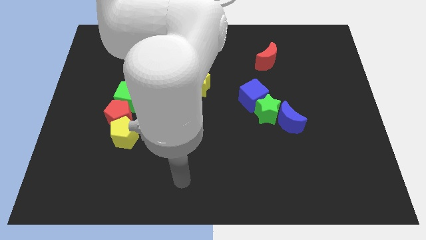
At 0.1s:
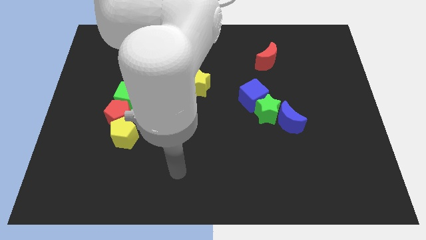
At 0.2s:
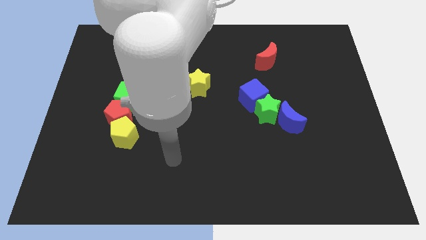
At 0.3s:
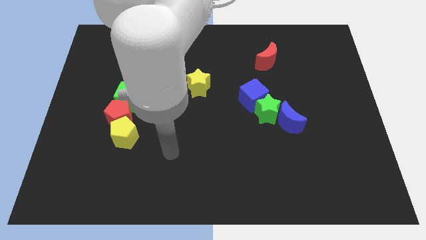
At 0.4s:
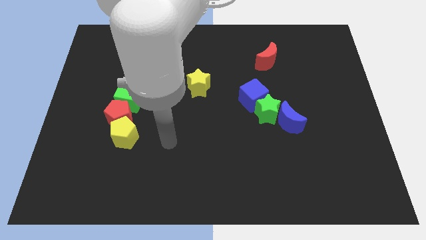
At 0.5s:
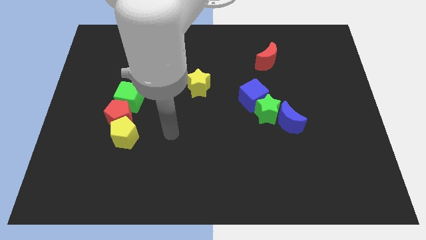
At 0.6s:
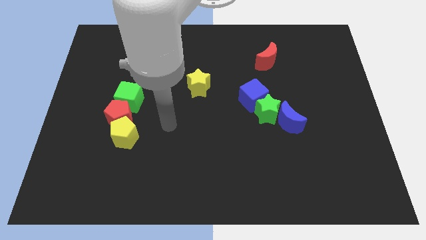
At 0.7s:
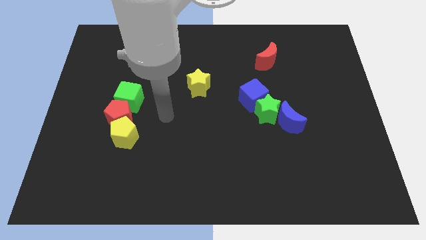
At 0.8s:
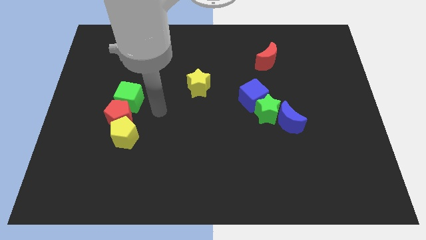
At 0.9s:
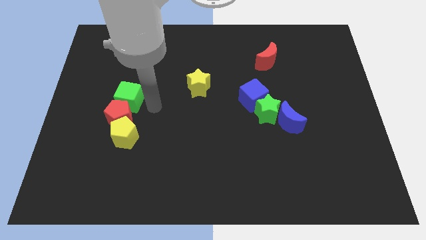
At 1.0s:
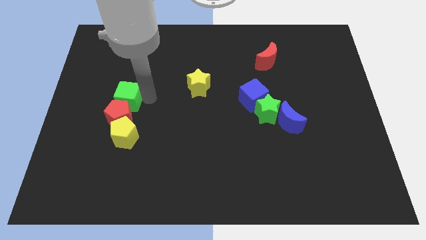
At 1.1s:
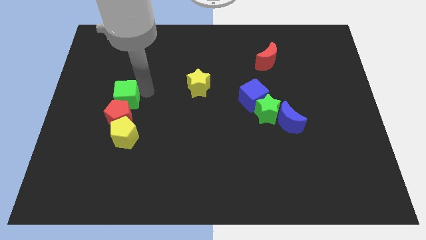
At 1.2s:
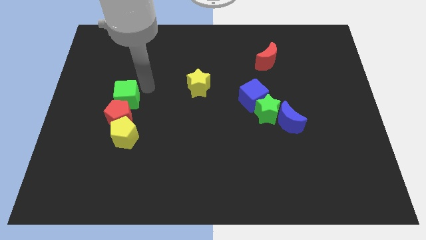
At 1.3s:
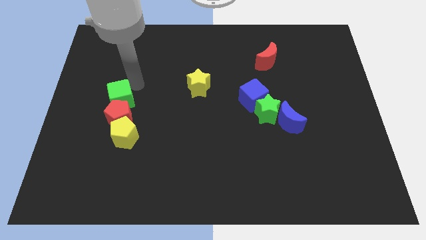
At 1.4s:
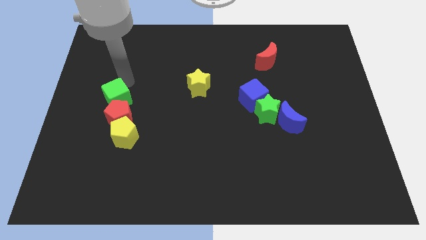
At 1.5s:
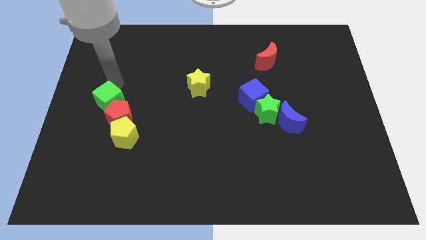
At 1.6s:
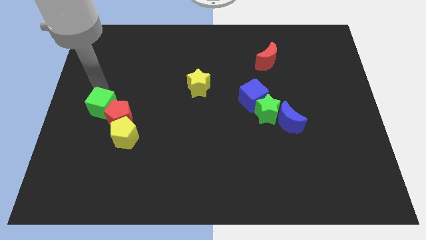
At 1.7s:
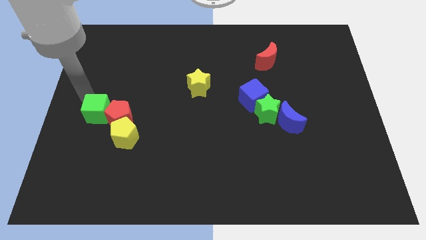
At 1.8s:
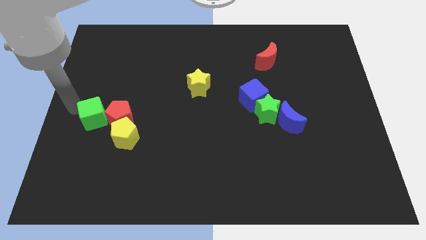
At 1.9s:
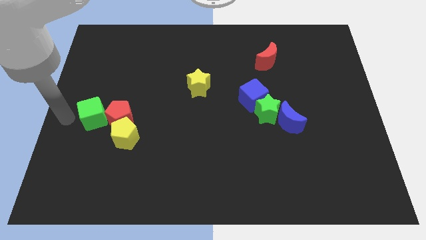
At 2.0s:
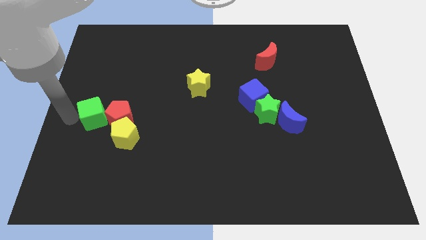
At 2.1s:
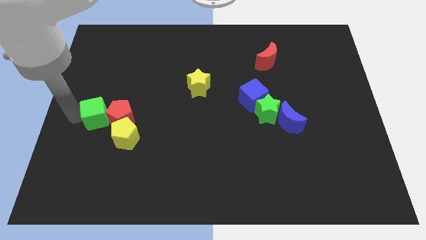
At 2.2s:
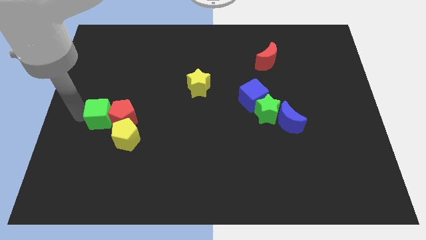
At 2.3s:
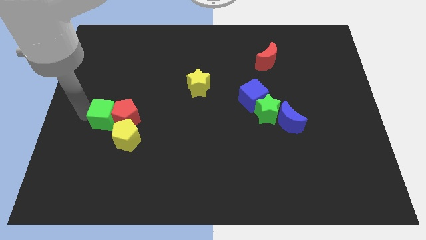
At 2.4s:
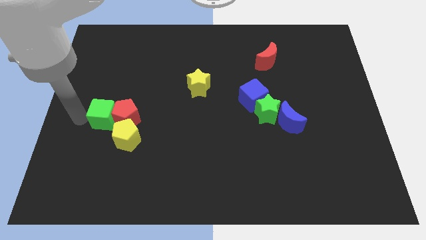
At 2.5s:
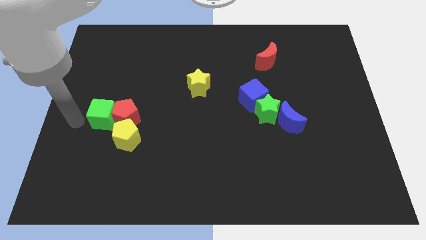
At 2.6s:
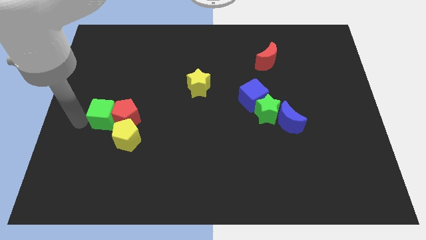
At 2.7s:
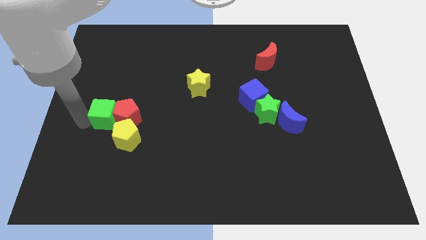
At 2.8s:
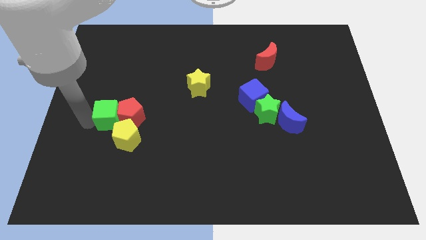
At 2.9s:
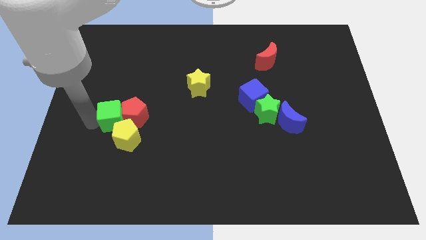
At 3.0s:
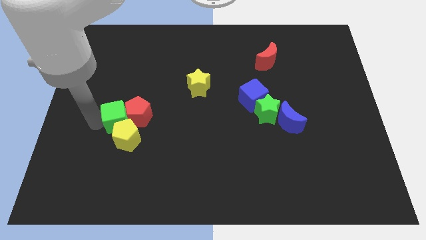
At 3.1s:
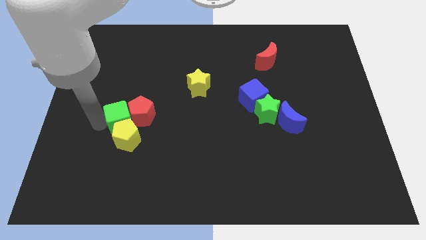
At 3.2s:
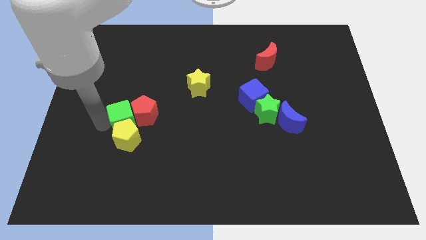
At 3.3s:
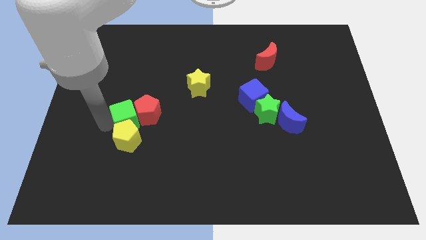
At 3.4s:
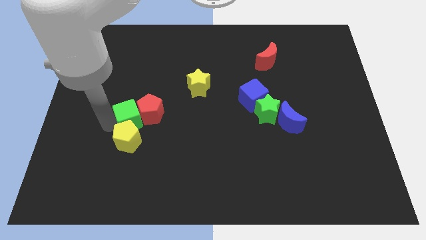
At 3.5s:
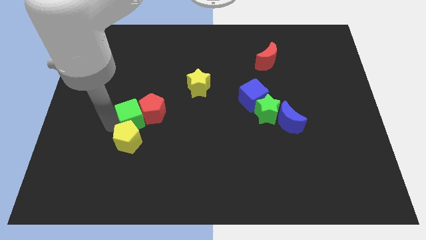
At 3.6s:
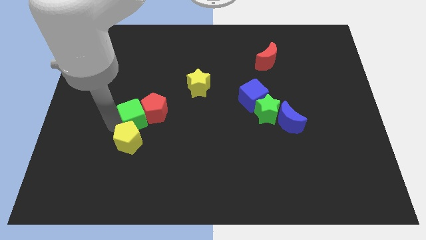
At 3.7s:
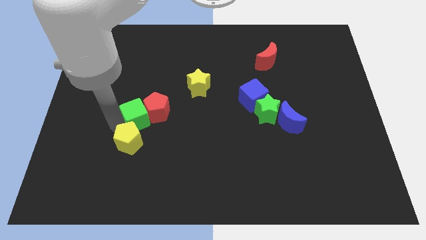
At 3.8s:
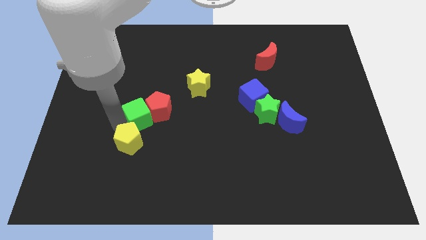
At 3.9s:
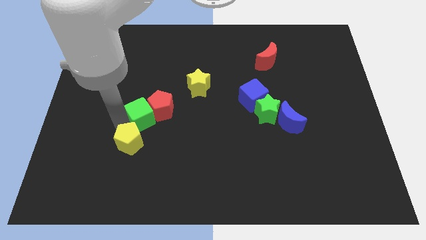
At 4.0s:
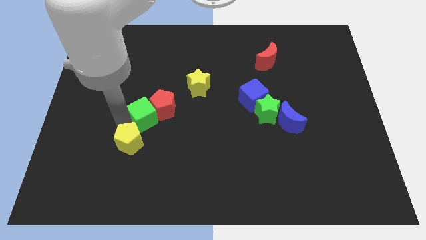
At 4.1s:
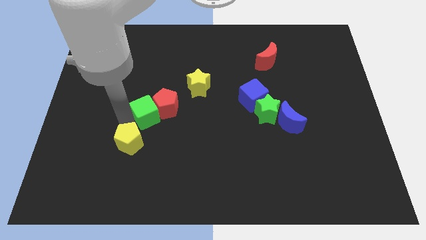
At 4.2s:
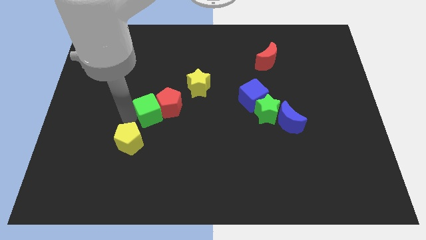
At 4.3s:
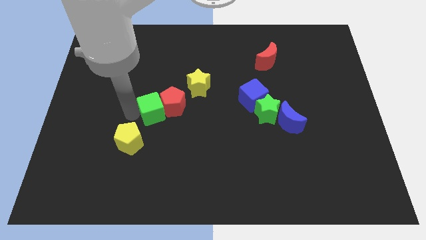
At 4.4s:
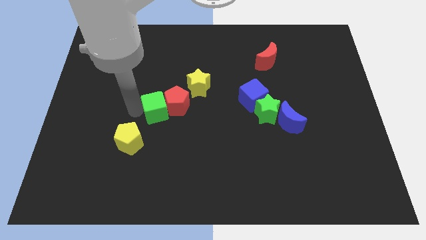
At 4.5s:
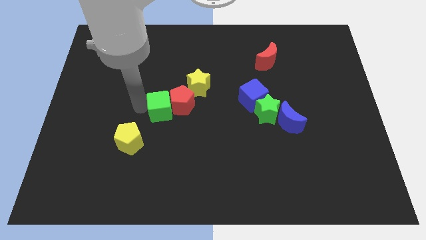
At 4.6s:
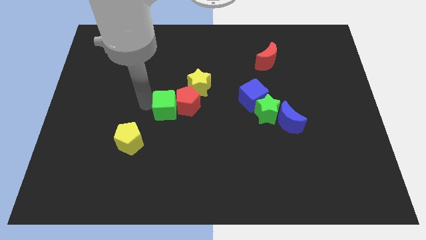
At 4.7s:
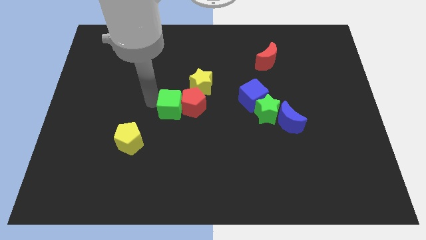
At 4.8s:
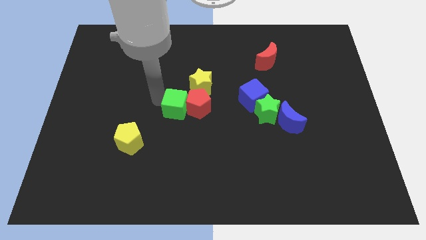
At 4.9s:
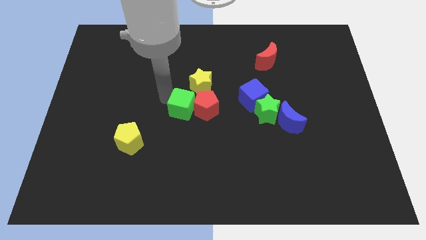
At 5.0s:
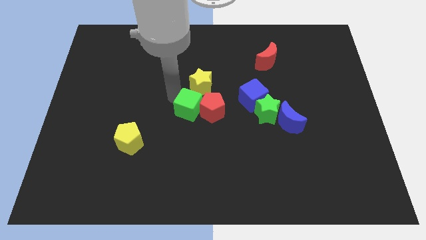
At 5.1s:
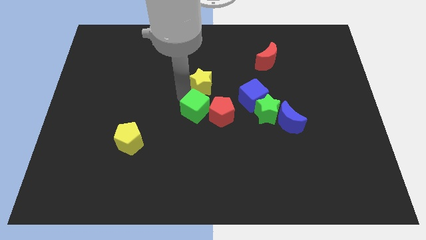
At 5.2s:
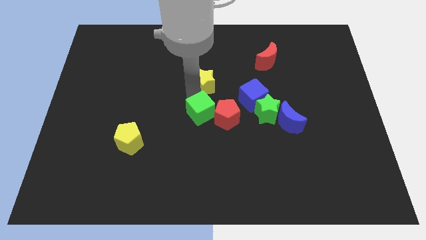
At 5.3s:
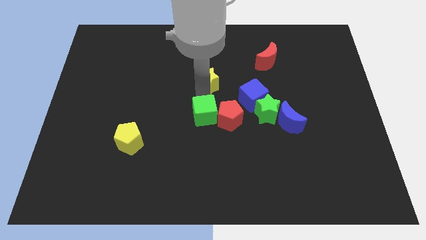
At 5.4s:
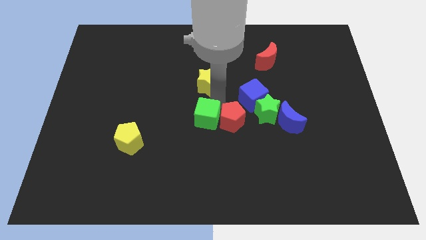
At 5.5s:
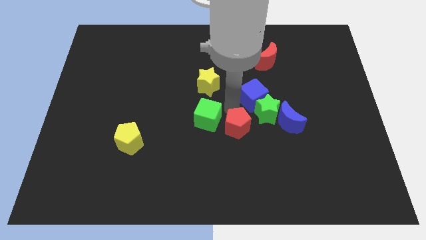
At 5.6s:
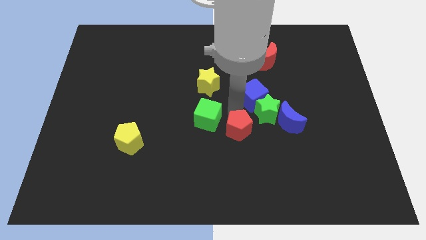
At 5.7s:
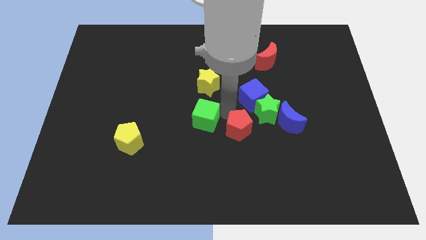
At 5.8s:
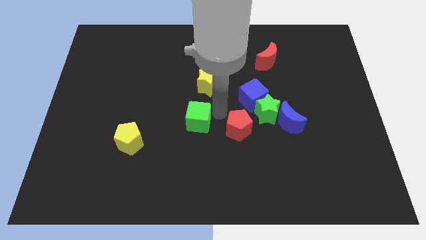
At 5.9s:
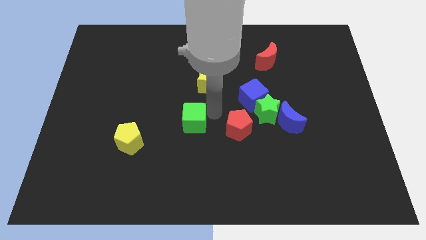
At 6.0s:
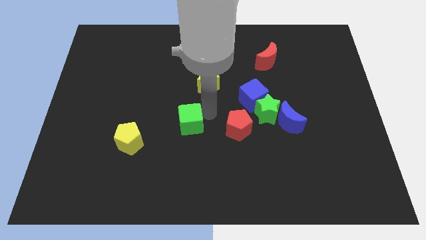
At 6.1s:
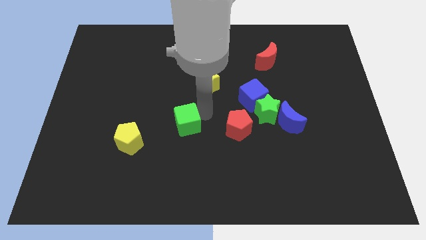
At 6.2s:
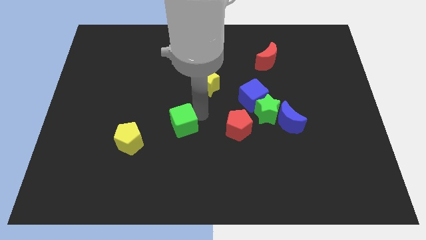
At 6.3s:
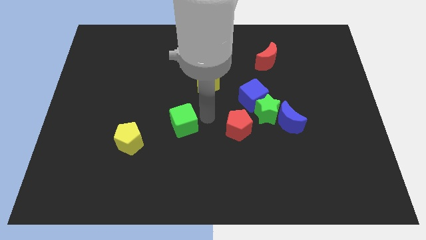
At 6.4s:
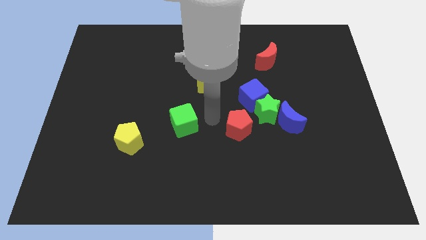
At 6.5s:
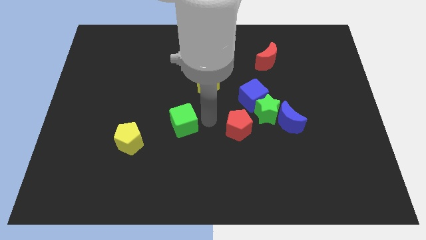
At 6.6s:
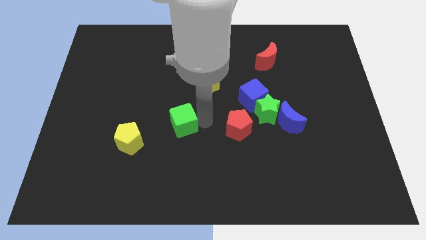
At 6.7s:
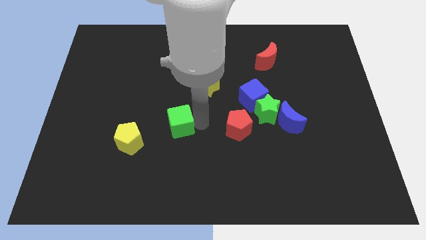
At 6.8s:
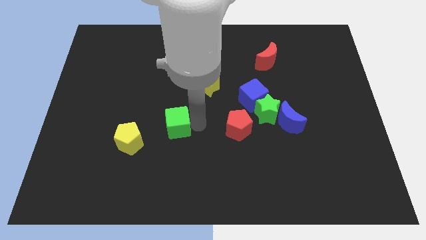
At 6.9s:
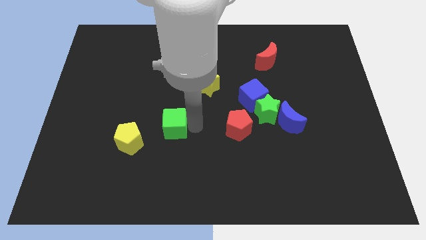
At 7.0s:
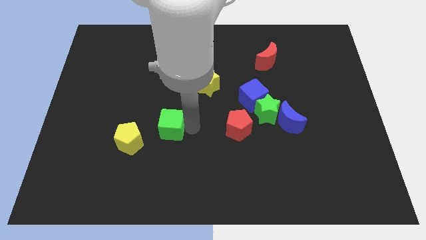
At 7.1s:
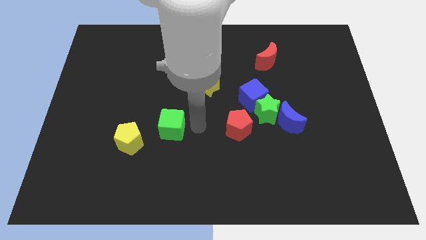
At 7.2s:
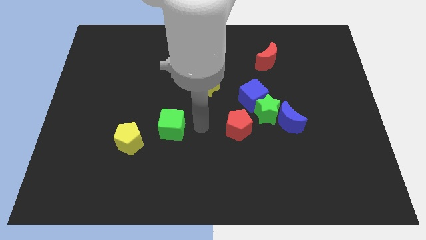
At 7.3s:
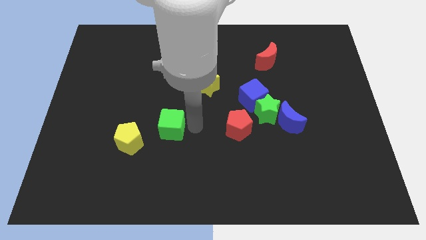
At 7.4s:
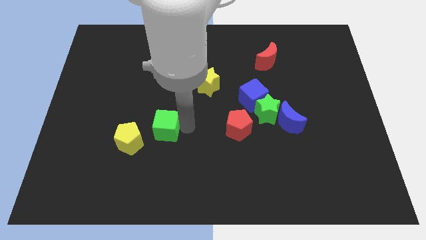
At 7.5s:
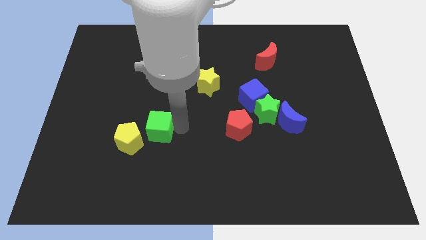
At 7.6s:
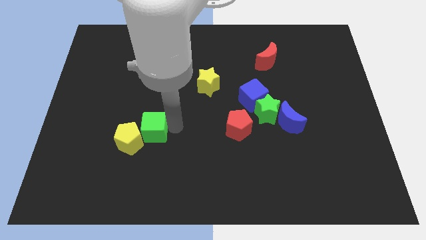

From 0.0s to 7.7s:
slightly move the green cube down

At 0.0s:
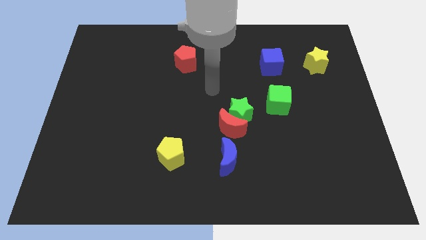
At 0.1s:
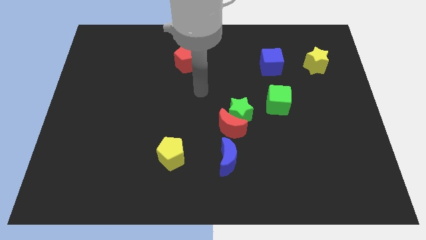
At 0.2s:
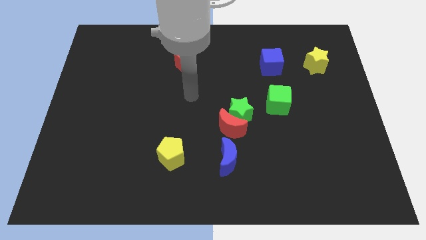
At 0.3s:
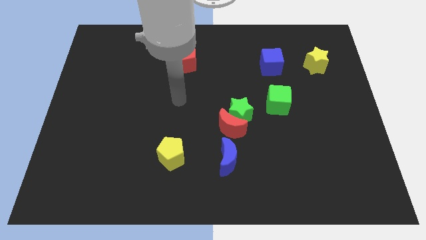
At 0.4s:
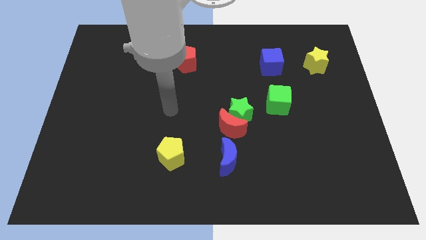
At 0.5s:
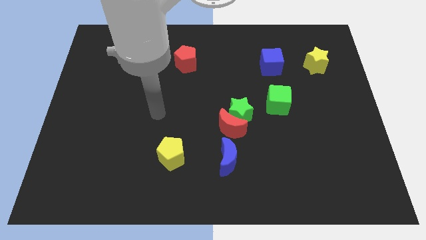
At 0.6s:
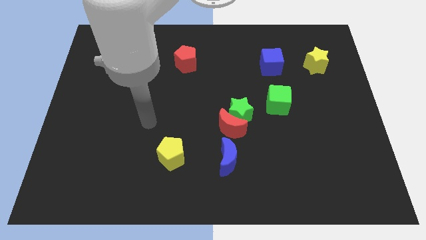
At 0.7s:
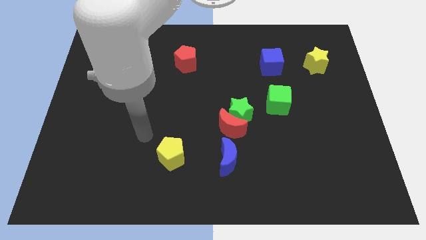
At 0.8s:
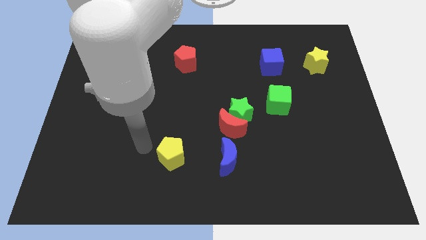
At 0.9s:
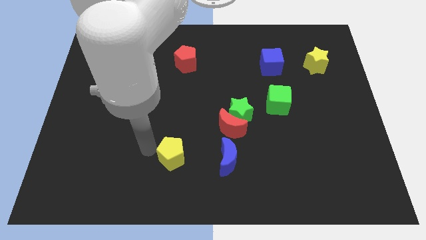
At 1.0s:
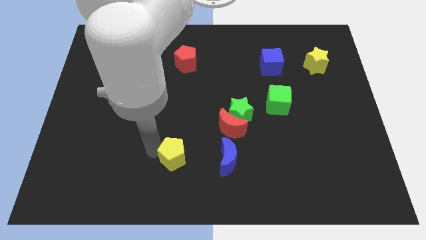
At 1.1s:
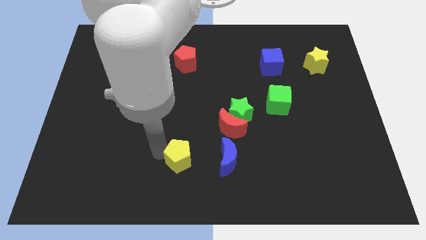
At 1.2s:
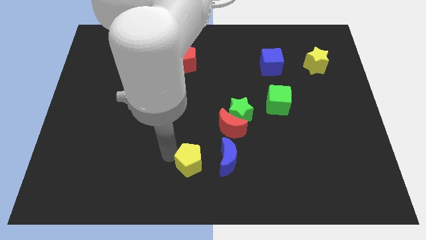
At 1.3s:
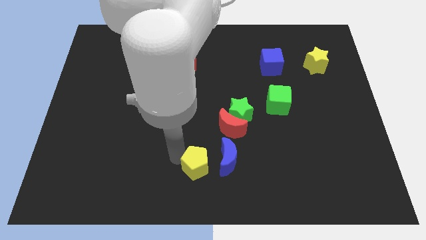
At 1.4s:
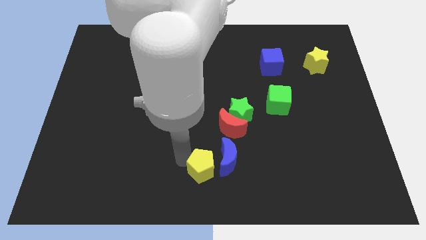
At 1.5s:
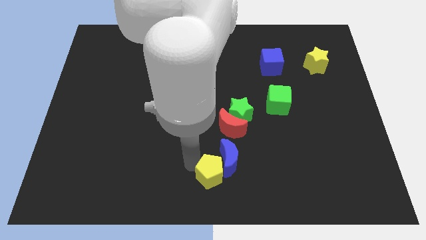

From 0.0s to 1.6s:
push the yellow pentagon a bit right
